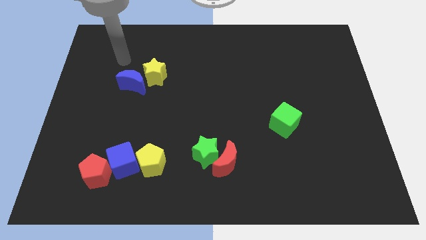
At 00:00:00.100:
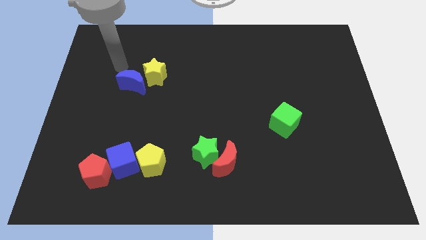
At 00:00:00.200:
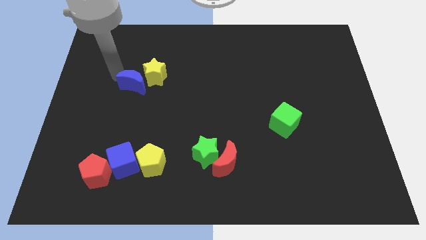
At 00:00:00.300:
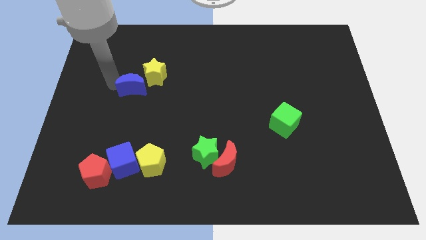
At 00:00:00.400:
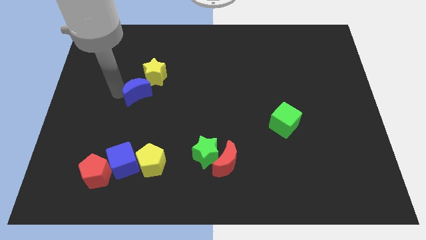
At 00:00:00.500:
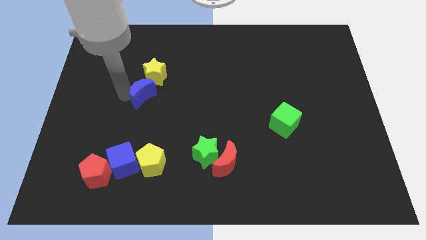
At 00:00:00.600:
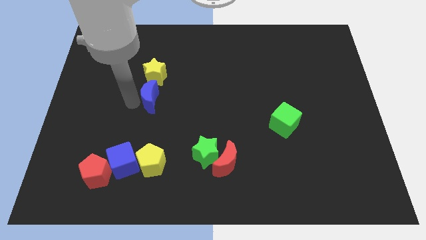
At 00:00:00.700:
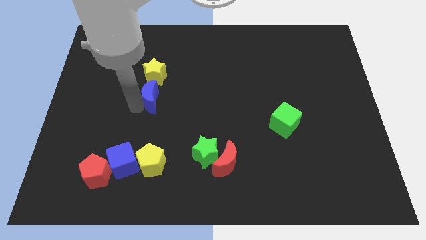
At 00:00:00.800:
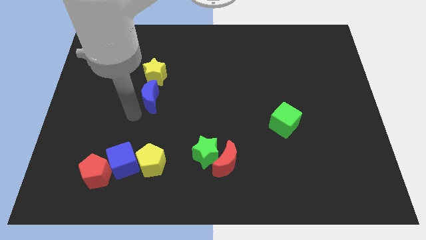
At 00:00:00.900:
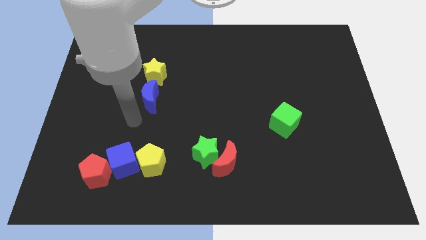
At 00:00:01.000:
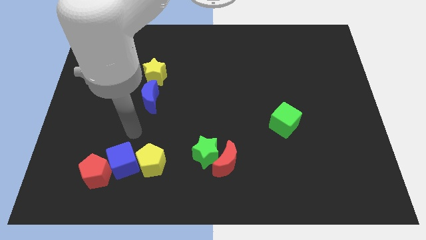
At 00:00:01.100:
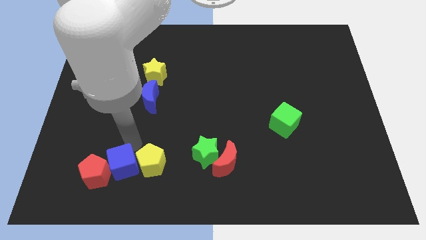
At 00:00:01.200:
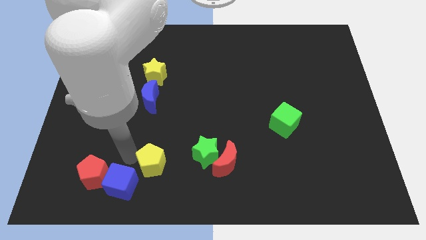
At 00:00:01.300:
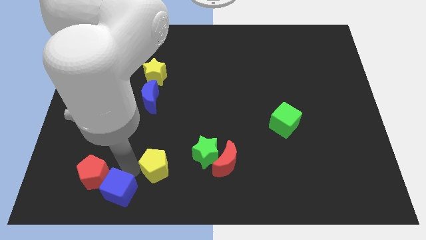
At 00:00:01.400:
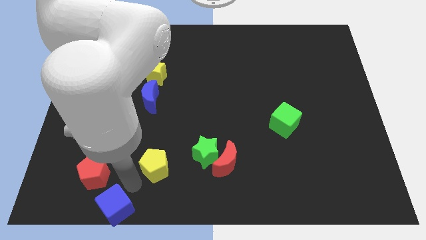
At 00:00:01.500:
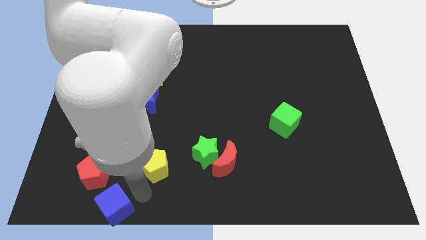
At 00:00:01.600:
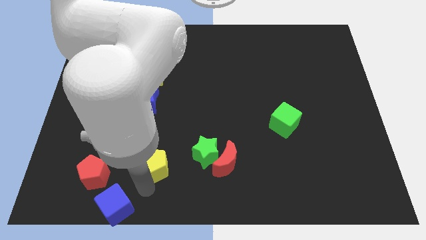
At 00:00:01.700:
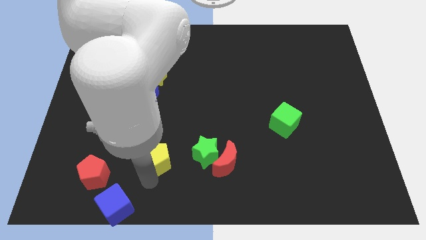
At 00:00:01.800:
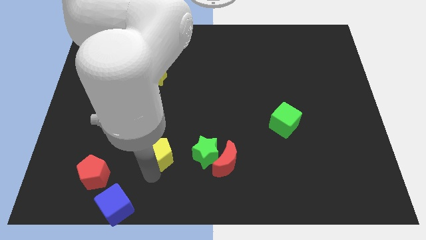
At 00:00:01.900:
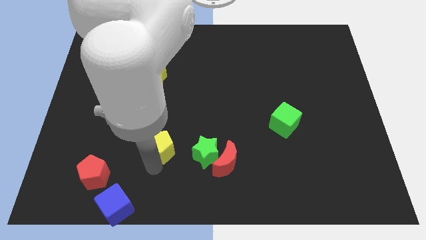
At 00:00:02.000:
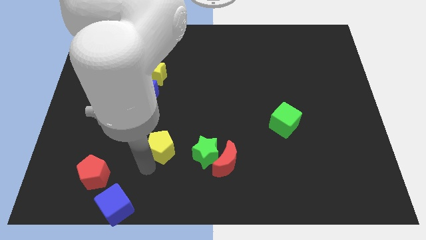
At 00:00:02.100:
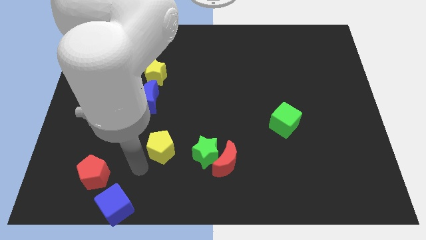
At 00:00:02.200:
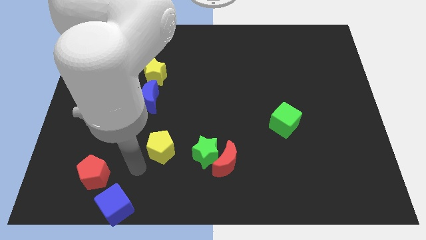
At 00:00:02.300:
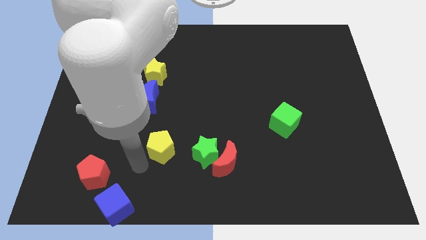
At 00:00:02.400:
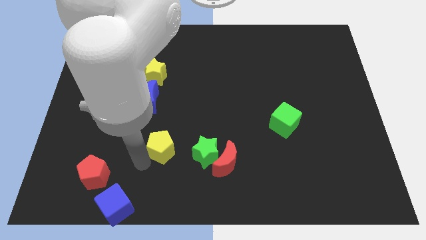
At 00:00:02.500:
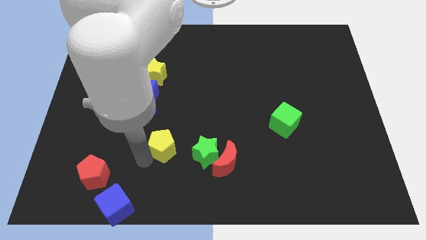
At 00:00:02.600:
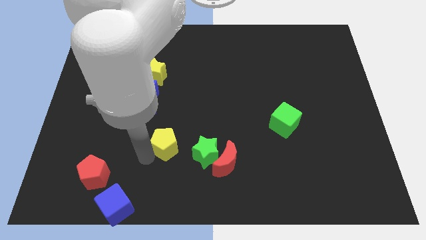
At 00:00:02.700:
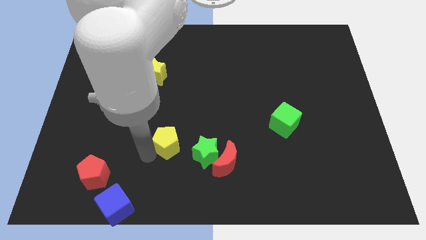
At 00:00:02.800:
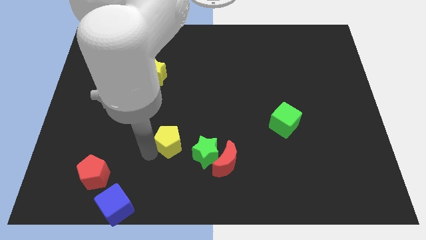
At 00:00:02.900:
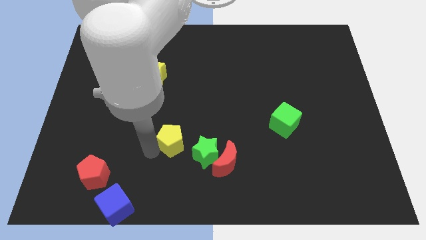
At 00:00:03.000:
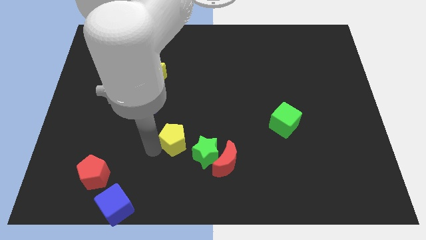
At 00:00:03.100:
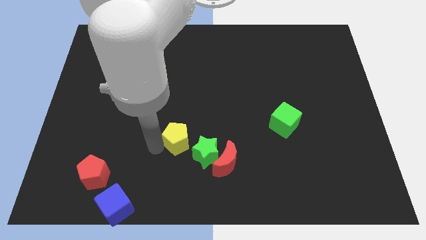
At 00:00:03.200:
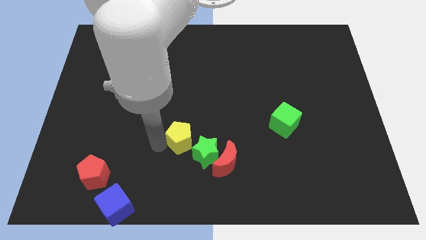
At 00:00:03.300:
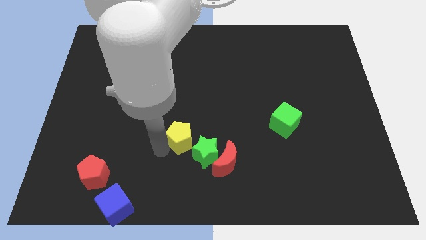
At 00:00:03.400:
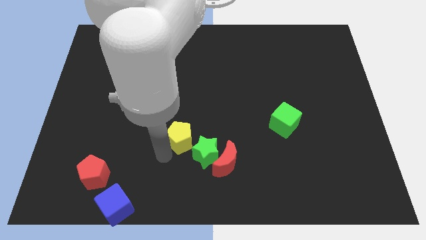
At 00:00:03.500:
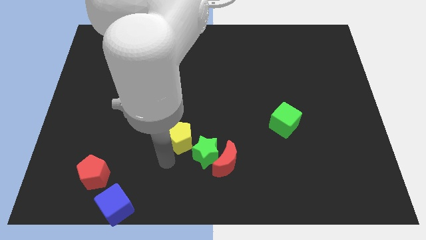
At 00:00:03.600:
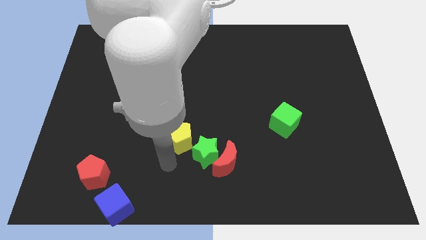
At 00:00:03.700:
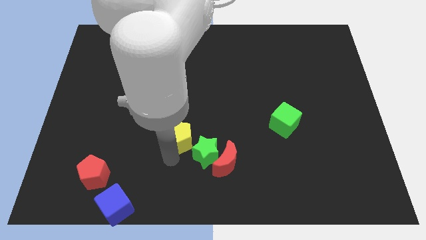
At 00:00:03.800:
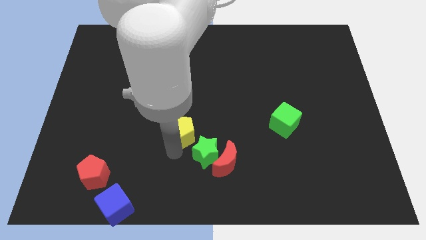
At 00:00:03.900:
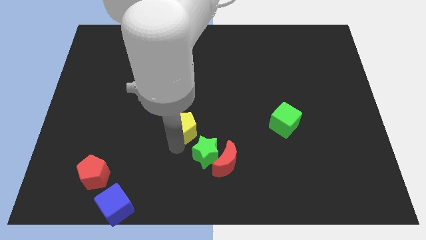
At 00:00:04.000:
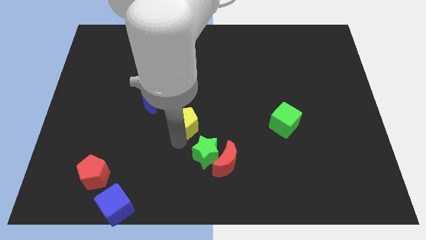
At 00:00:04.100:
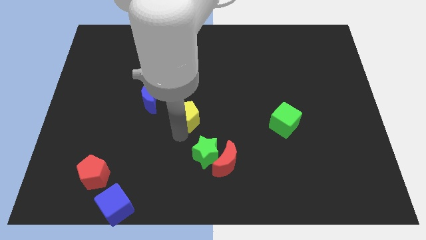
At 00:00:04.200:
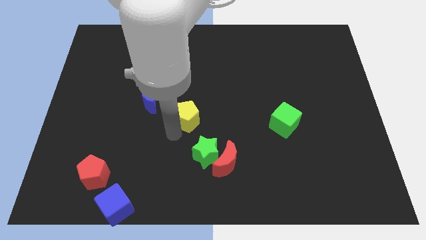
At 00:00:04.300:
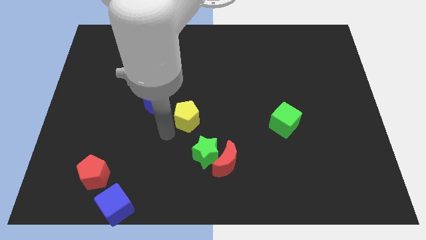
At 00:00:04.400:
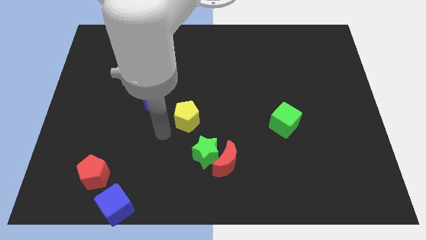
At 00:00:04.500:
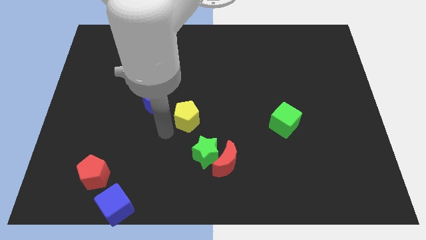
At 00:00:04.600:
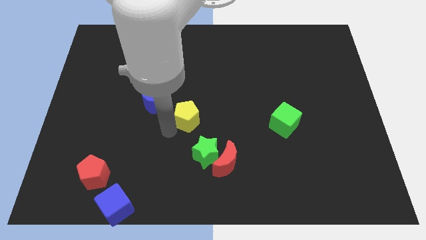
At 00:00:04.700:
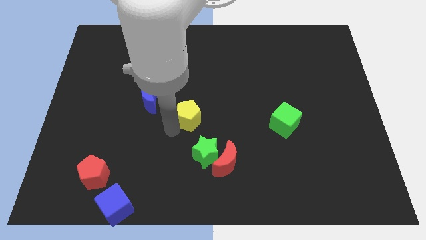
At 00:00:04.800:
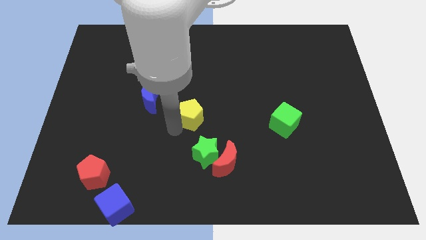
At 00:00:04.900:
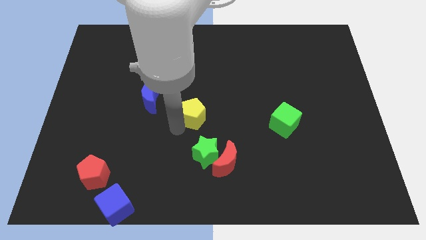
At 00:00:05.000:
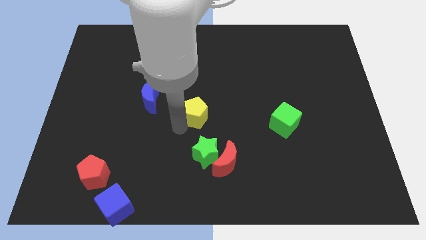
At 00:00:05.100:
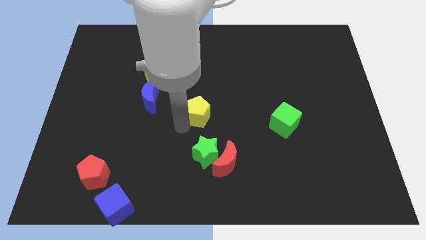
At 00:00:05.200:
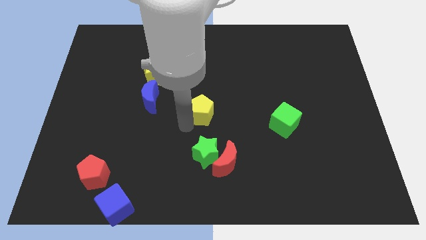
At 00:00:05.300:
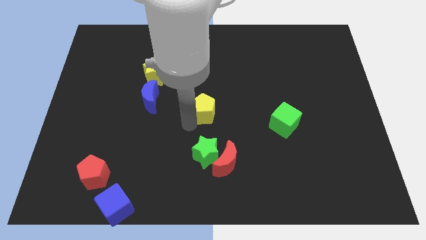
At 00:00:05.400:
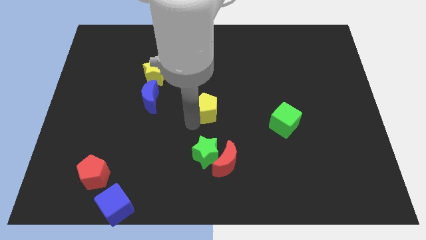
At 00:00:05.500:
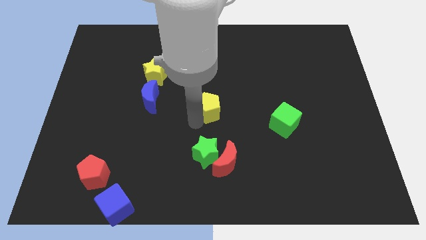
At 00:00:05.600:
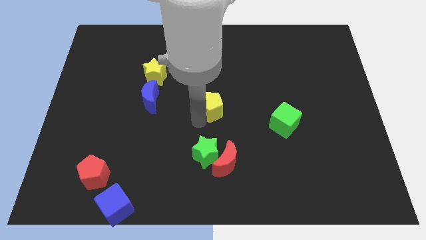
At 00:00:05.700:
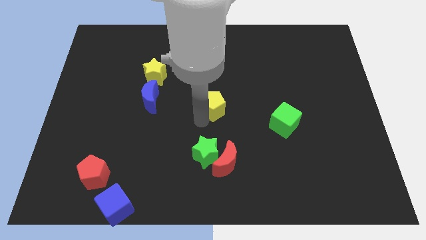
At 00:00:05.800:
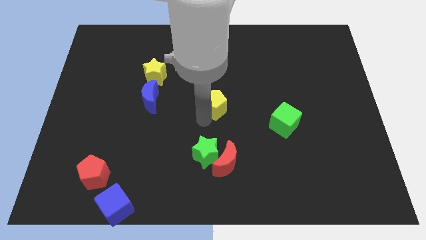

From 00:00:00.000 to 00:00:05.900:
push the yellow pentagon up and right

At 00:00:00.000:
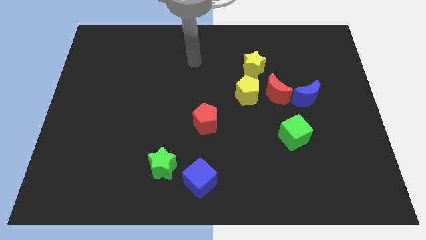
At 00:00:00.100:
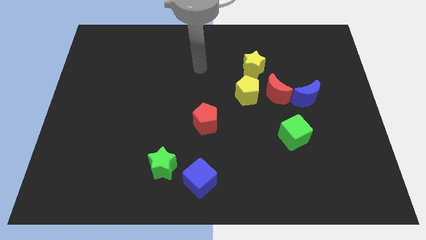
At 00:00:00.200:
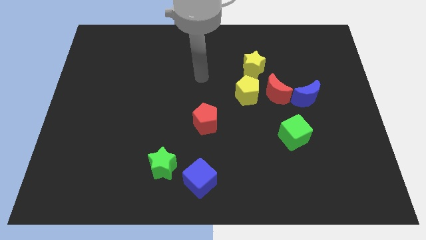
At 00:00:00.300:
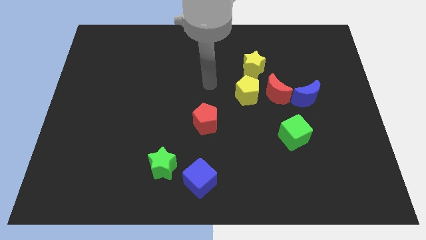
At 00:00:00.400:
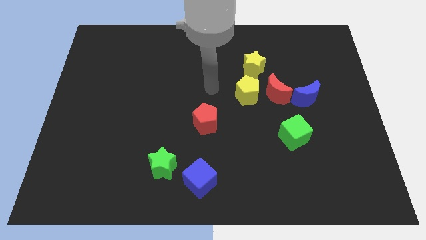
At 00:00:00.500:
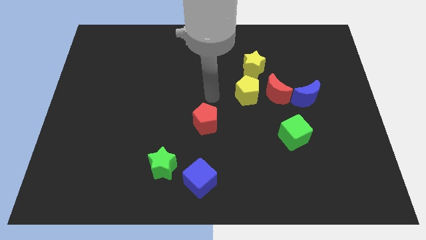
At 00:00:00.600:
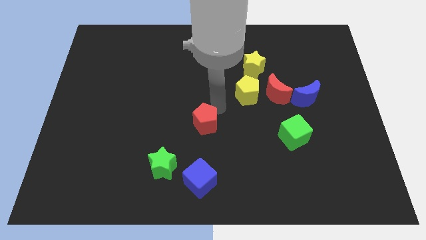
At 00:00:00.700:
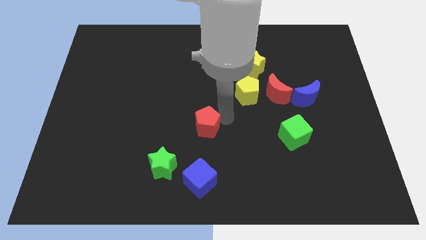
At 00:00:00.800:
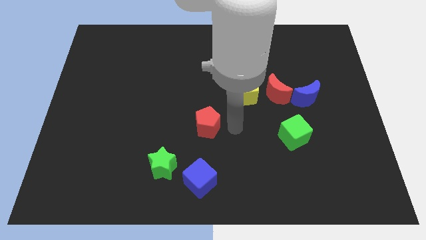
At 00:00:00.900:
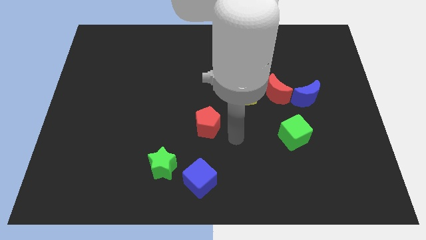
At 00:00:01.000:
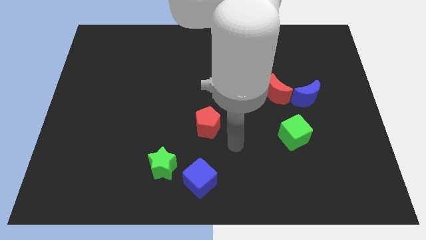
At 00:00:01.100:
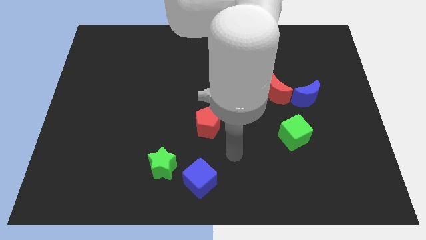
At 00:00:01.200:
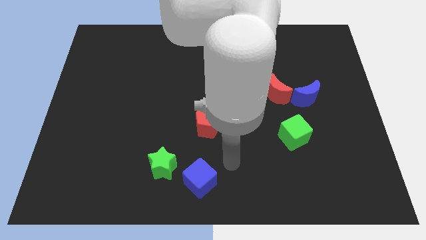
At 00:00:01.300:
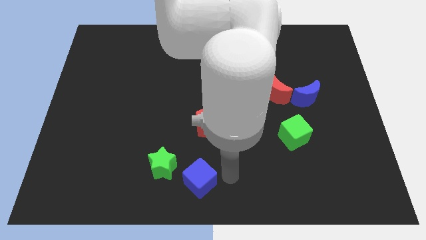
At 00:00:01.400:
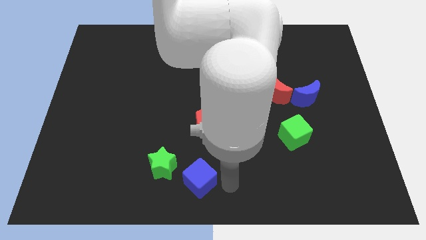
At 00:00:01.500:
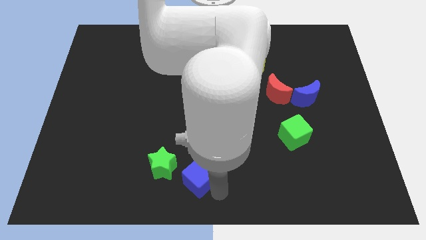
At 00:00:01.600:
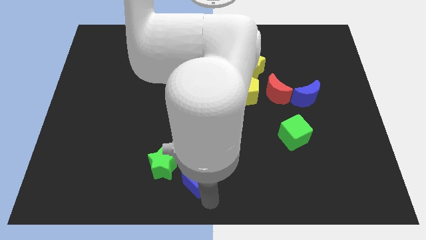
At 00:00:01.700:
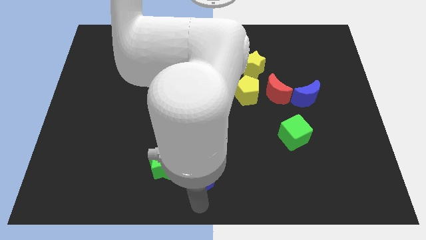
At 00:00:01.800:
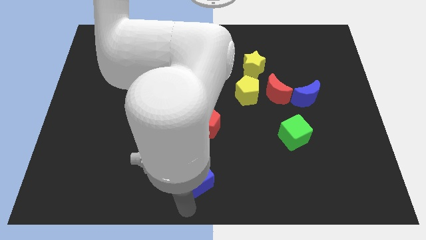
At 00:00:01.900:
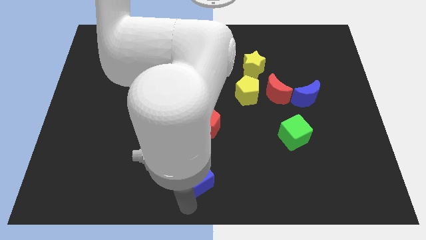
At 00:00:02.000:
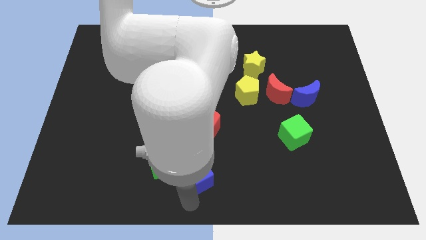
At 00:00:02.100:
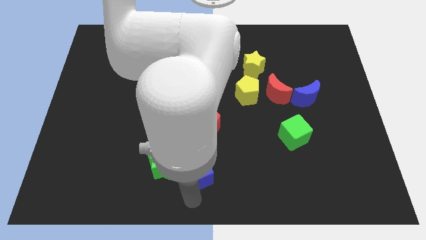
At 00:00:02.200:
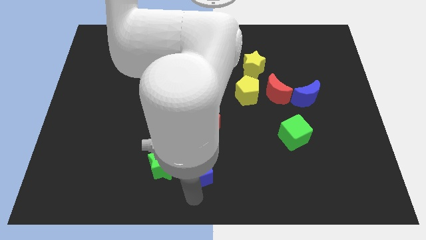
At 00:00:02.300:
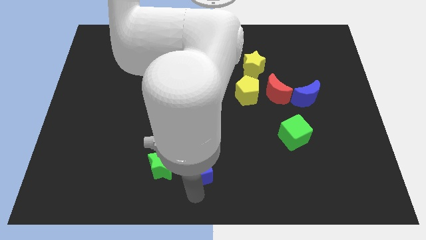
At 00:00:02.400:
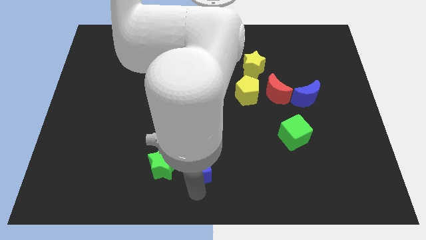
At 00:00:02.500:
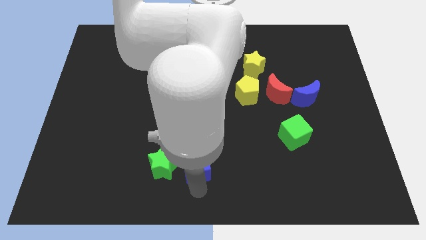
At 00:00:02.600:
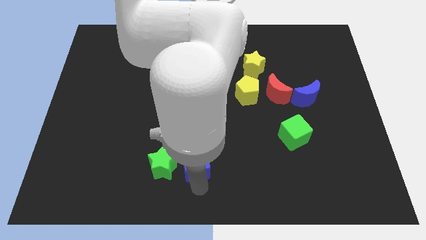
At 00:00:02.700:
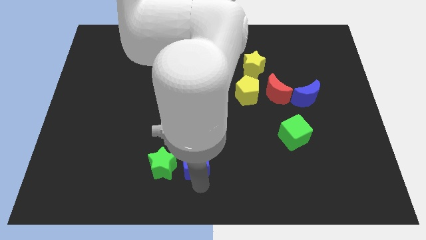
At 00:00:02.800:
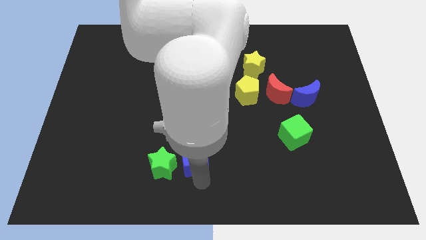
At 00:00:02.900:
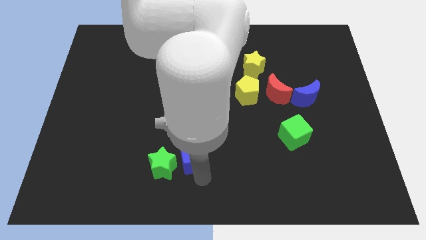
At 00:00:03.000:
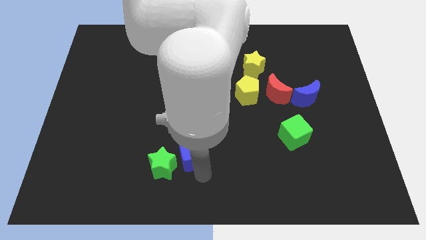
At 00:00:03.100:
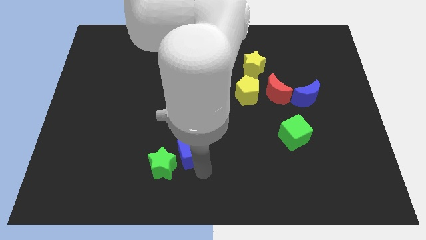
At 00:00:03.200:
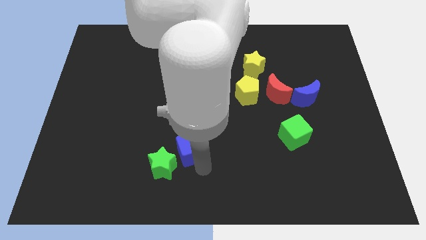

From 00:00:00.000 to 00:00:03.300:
push the blue cube upwards a bit
